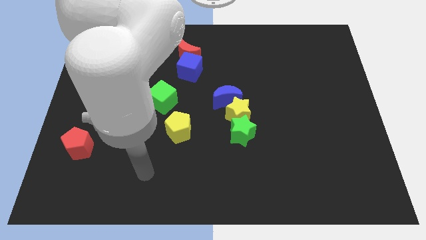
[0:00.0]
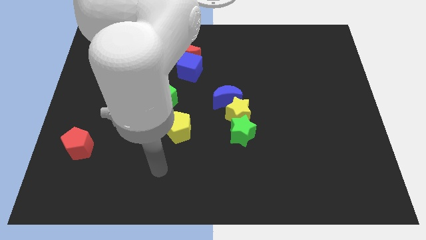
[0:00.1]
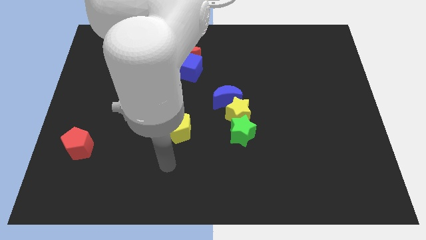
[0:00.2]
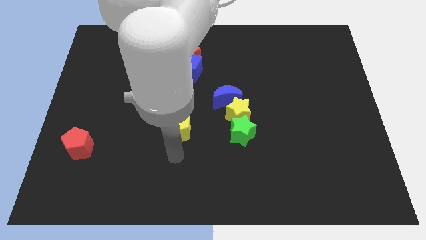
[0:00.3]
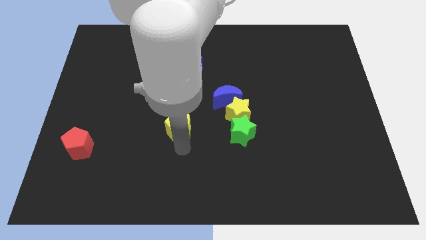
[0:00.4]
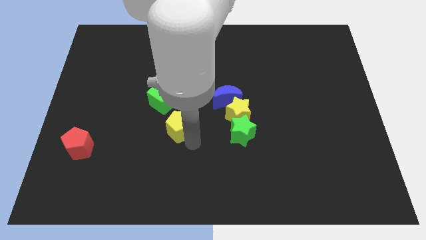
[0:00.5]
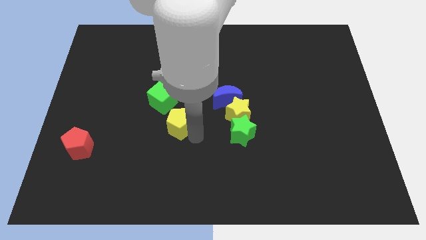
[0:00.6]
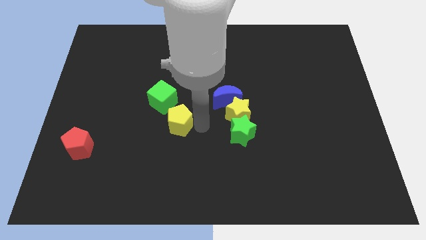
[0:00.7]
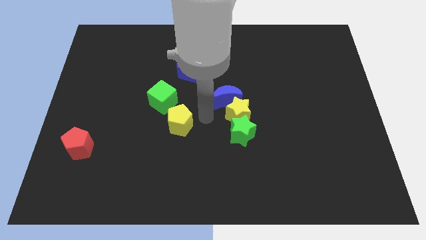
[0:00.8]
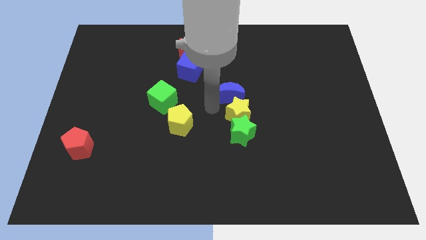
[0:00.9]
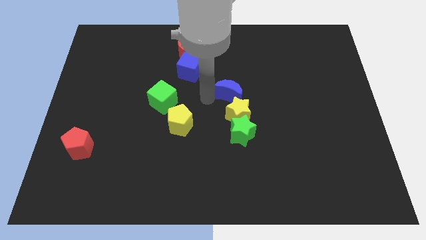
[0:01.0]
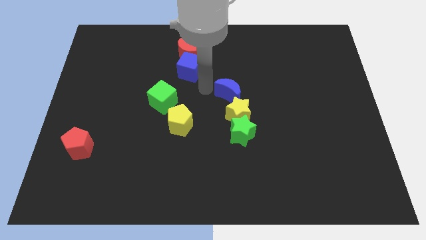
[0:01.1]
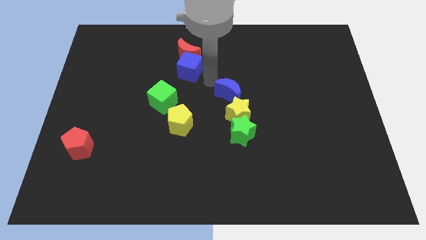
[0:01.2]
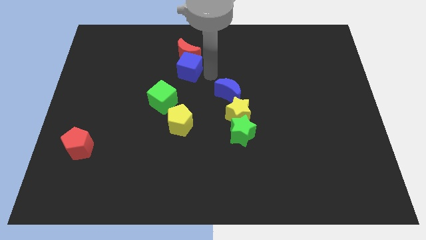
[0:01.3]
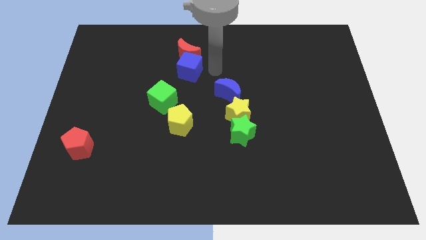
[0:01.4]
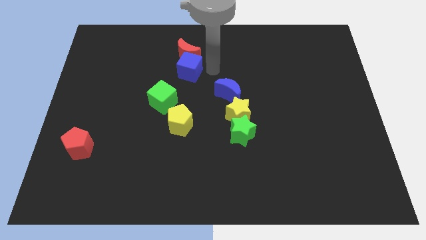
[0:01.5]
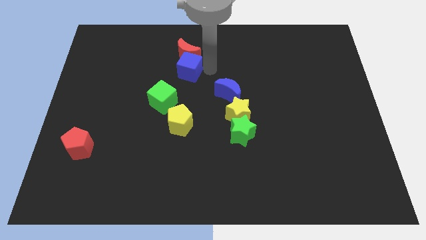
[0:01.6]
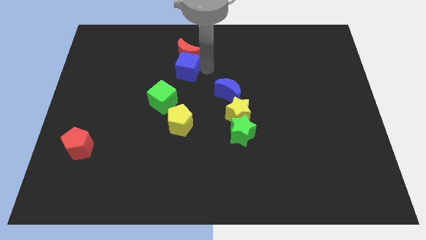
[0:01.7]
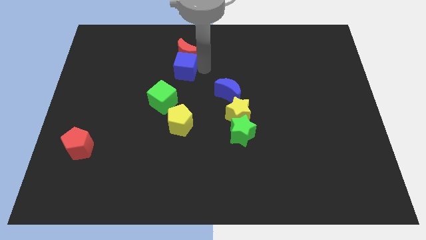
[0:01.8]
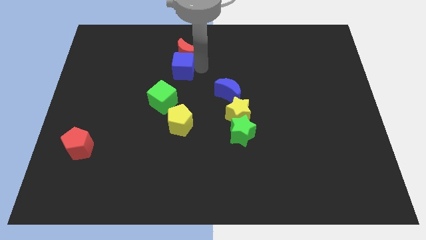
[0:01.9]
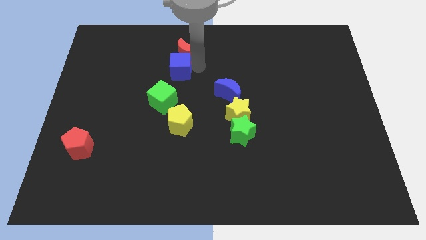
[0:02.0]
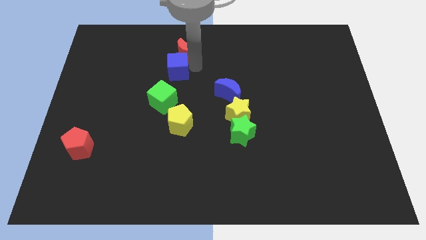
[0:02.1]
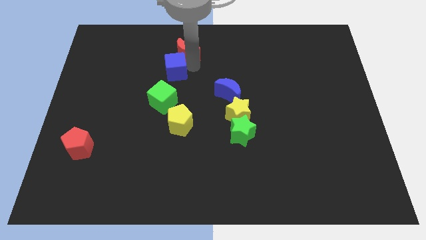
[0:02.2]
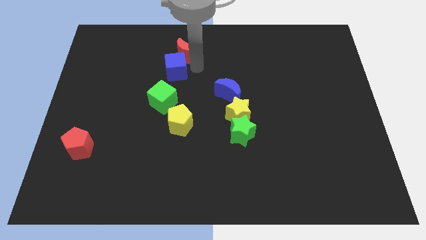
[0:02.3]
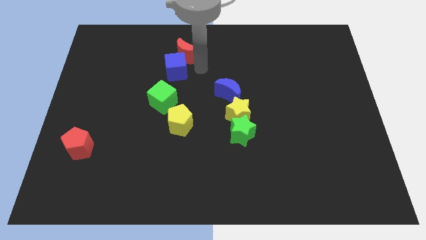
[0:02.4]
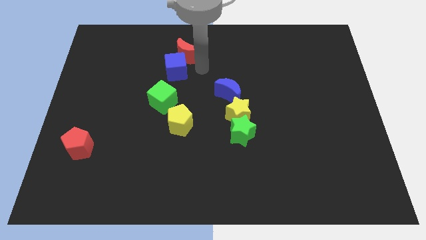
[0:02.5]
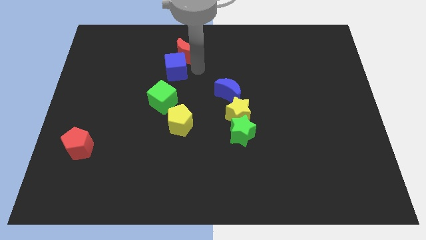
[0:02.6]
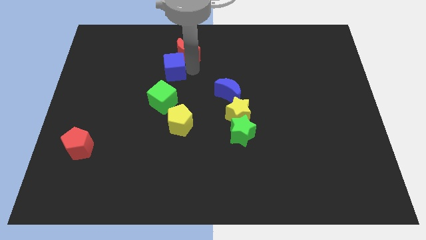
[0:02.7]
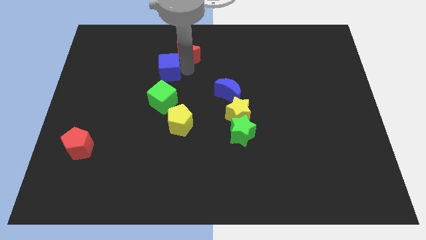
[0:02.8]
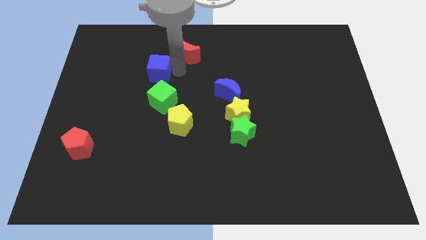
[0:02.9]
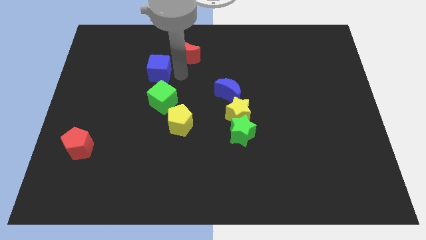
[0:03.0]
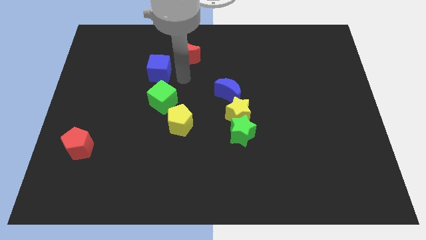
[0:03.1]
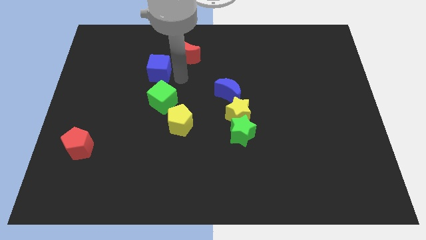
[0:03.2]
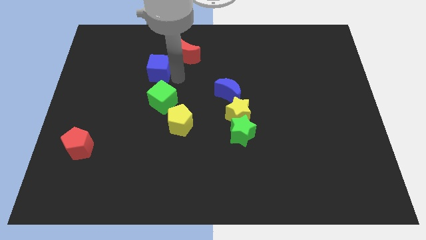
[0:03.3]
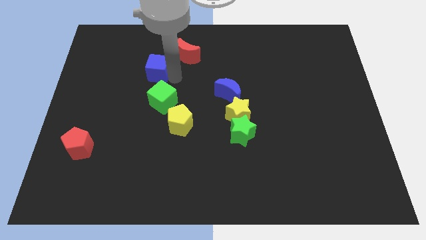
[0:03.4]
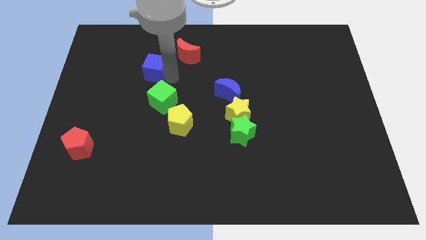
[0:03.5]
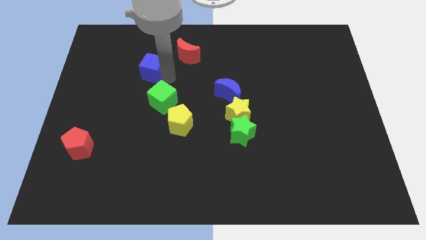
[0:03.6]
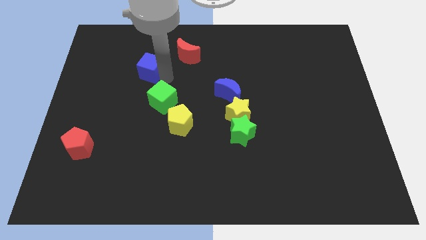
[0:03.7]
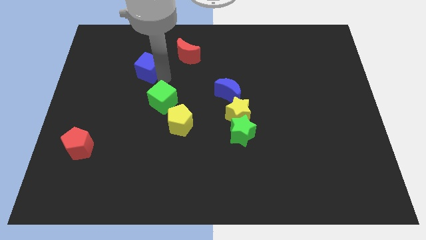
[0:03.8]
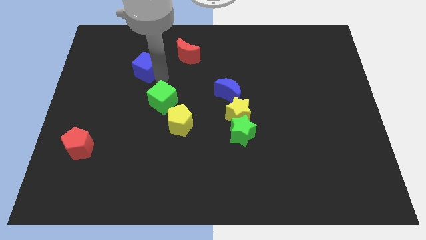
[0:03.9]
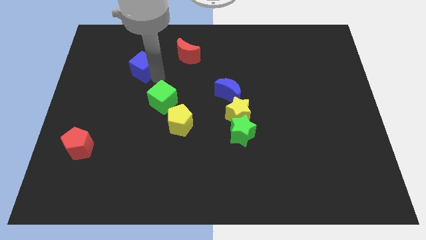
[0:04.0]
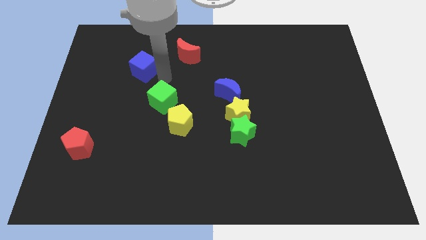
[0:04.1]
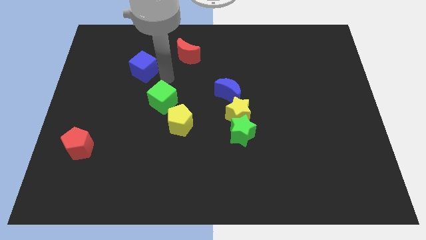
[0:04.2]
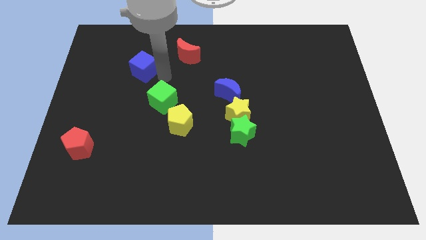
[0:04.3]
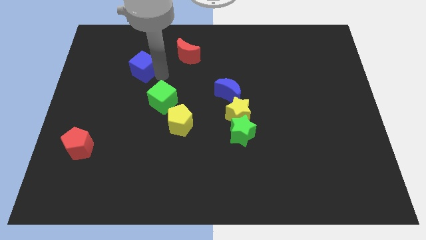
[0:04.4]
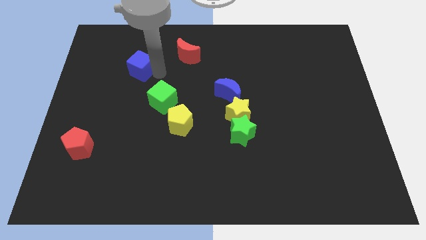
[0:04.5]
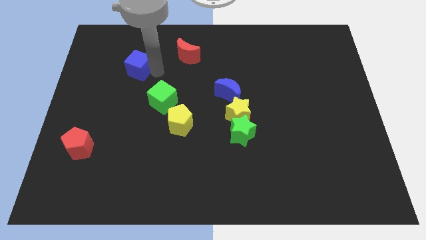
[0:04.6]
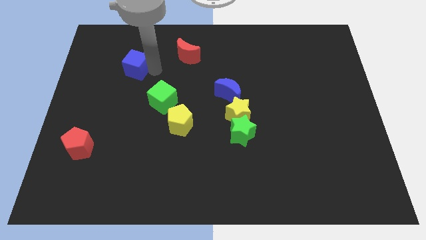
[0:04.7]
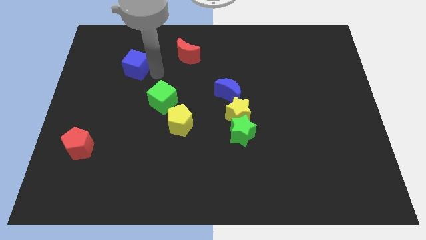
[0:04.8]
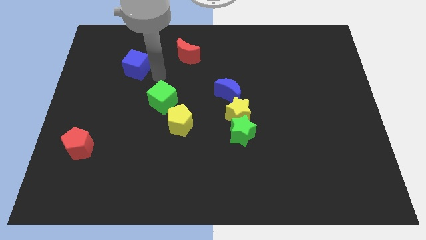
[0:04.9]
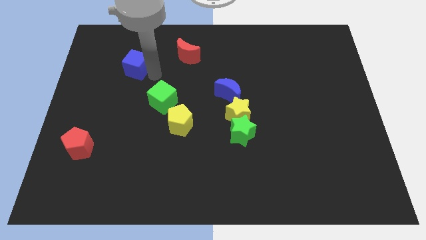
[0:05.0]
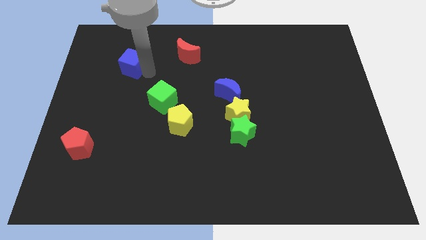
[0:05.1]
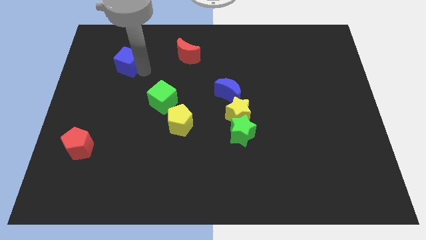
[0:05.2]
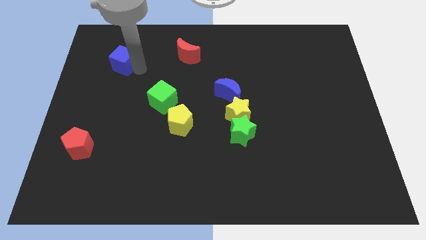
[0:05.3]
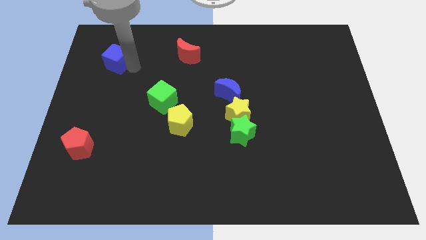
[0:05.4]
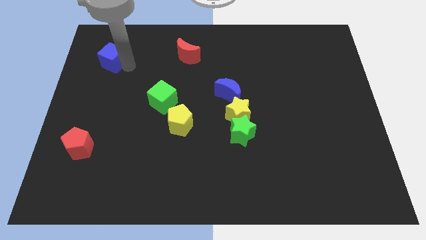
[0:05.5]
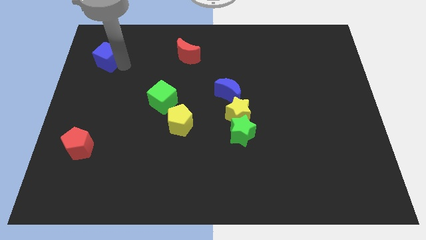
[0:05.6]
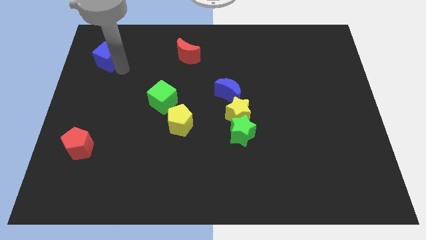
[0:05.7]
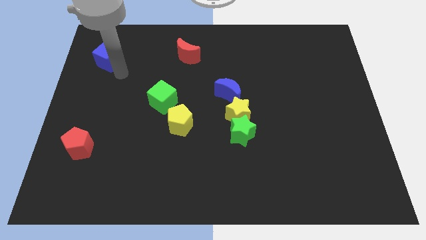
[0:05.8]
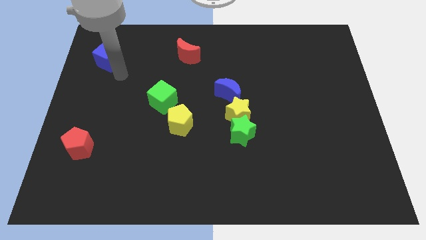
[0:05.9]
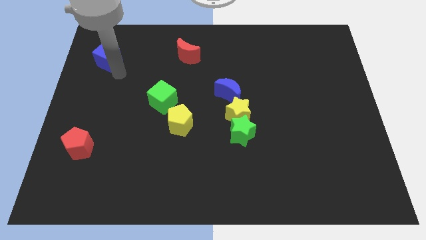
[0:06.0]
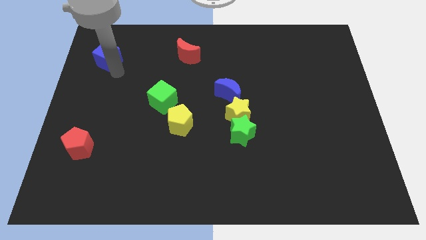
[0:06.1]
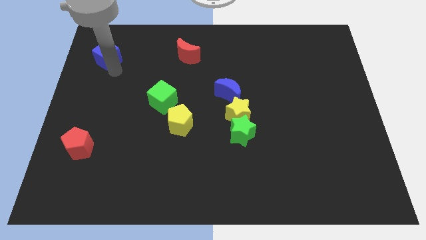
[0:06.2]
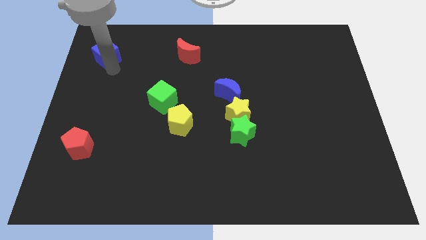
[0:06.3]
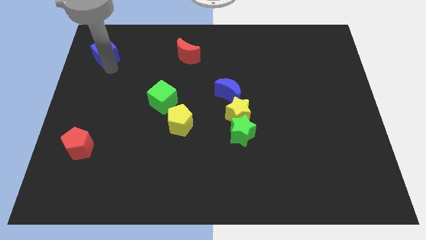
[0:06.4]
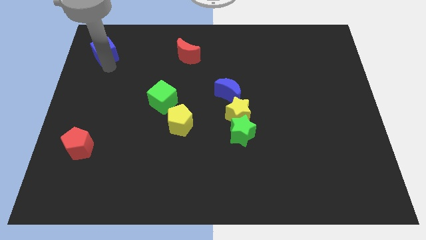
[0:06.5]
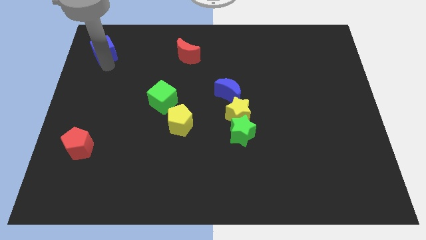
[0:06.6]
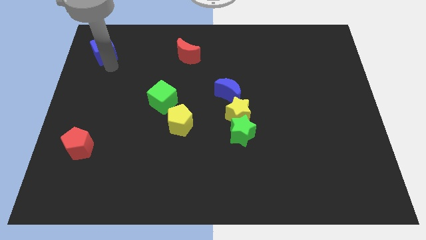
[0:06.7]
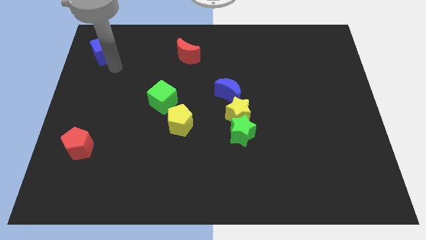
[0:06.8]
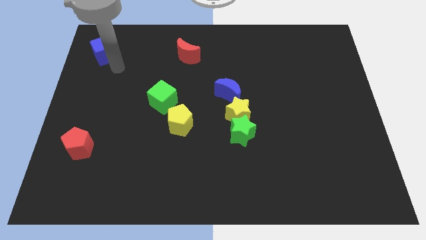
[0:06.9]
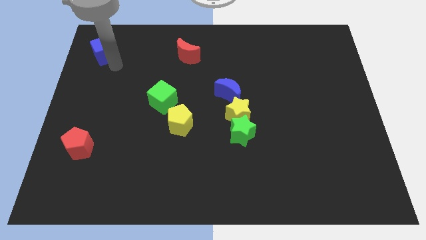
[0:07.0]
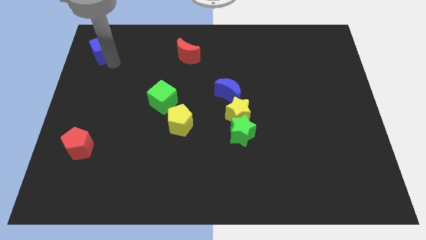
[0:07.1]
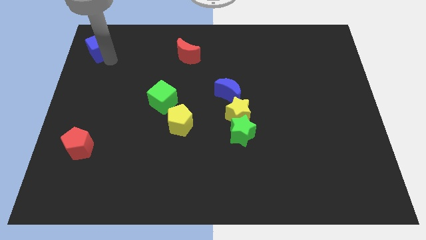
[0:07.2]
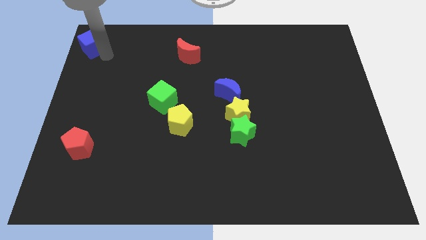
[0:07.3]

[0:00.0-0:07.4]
slide the blue cube to the upper left corner
